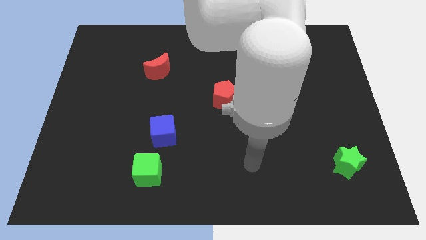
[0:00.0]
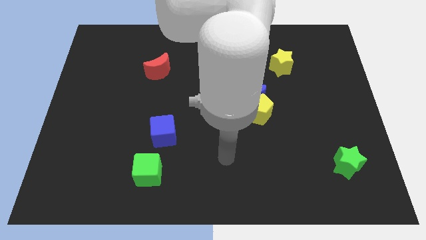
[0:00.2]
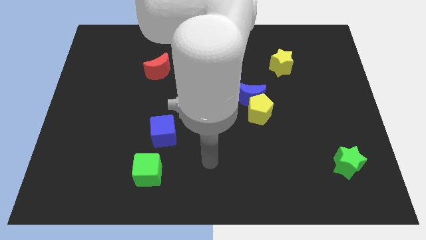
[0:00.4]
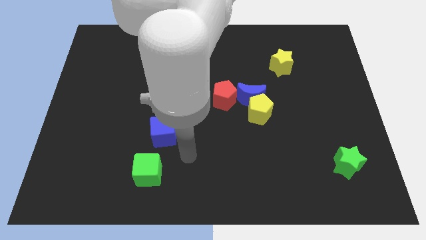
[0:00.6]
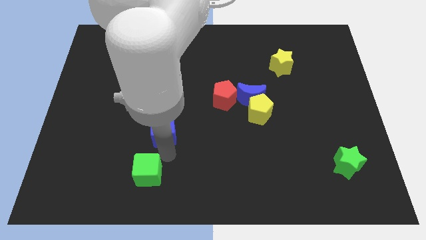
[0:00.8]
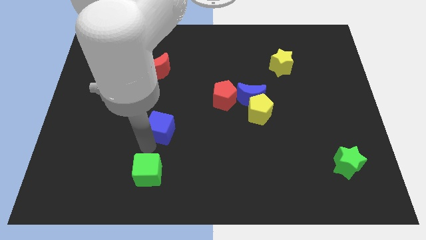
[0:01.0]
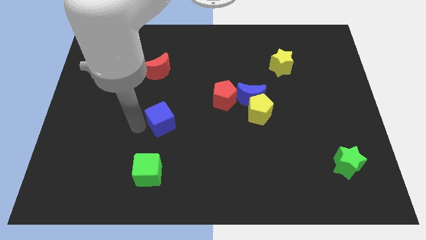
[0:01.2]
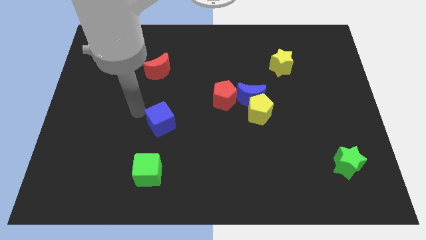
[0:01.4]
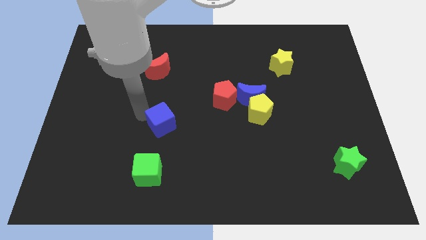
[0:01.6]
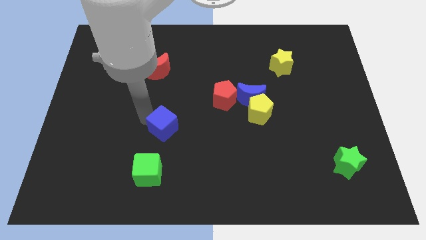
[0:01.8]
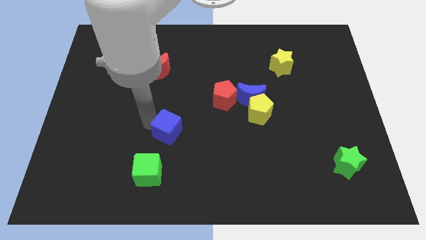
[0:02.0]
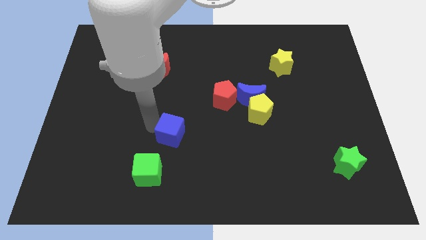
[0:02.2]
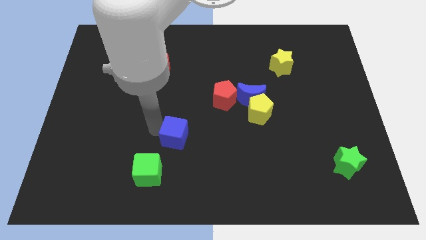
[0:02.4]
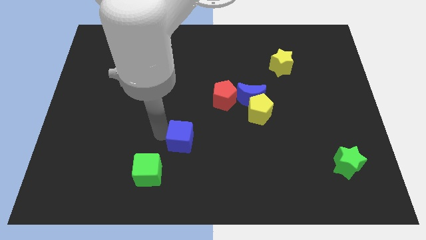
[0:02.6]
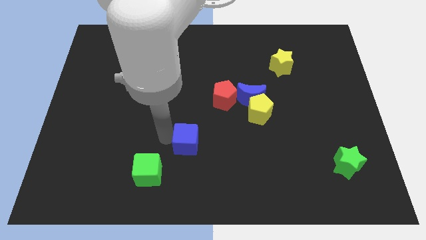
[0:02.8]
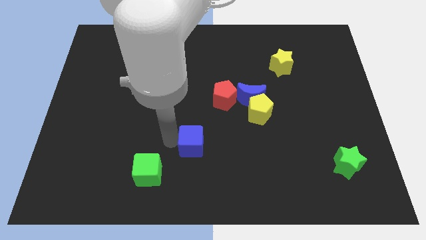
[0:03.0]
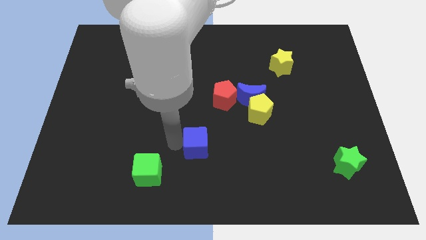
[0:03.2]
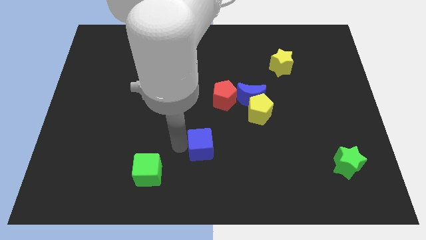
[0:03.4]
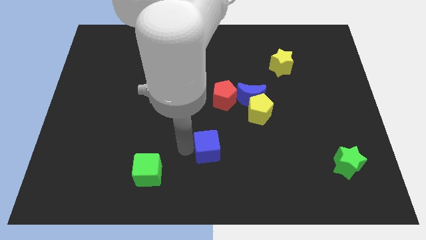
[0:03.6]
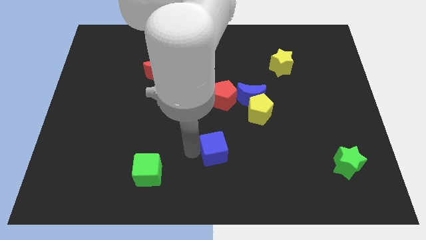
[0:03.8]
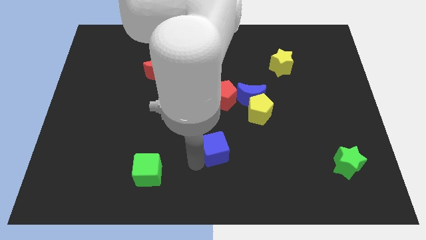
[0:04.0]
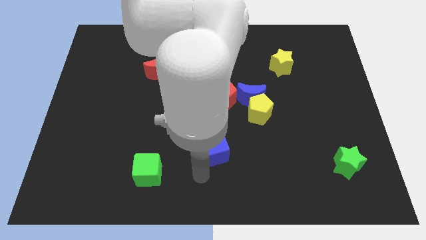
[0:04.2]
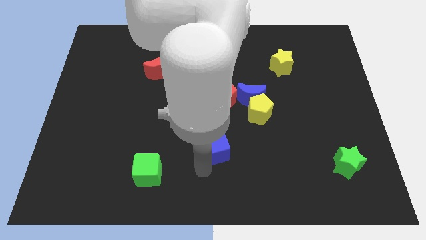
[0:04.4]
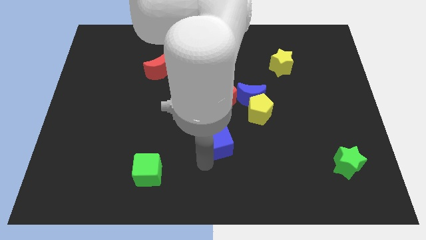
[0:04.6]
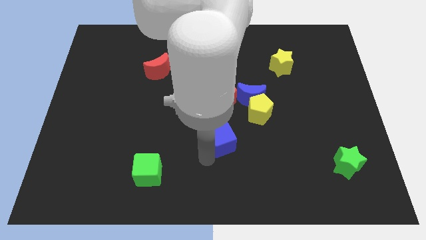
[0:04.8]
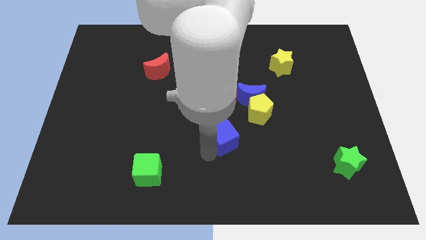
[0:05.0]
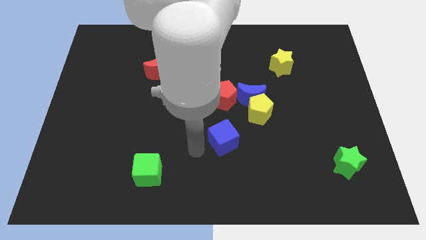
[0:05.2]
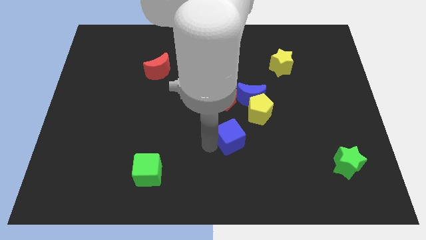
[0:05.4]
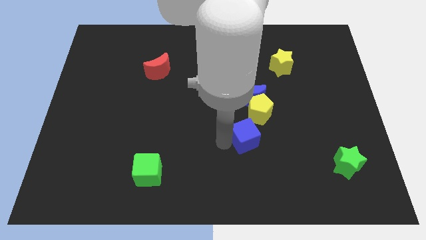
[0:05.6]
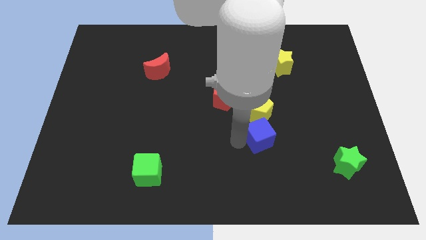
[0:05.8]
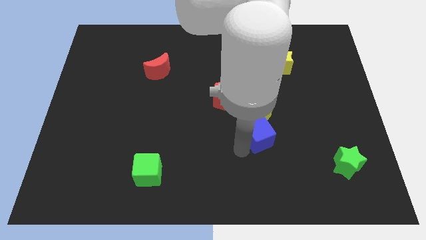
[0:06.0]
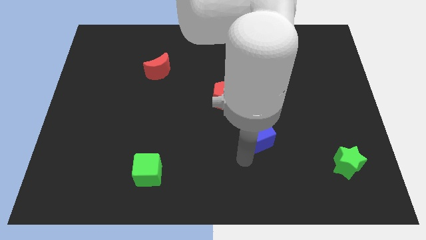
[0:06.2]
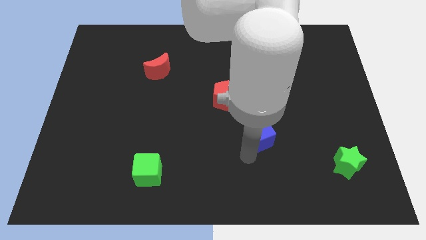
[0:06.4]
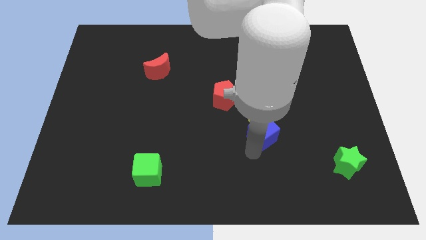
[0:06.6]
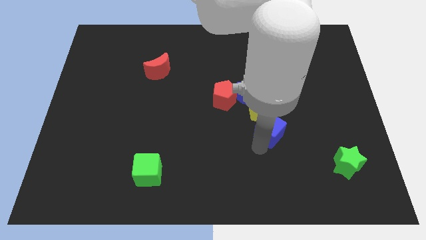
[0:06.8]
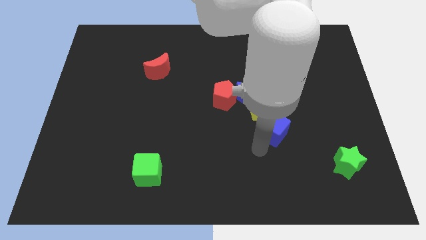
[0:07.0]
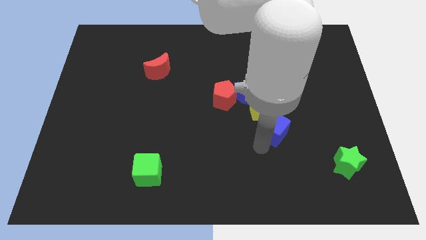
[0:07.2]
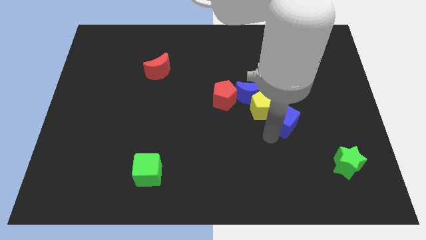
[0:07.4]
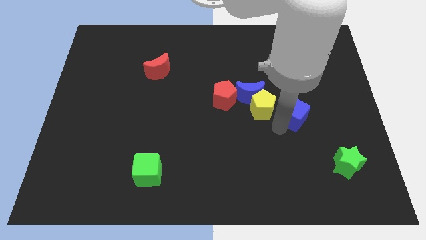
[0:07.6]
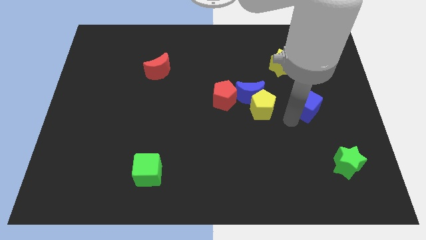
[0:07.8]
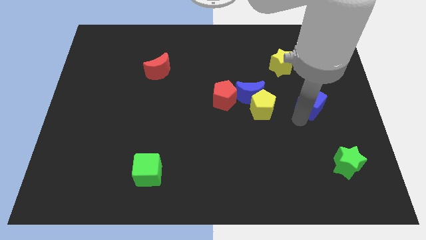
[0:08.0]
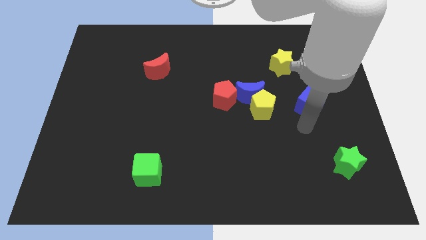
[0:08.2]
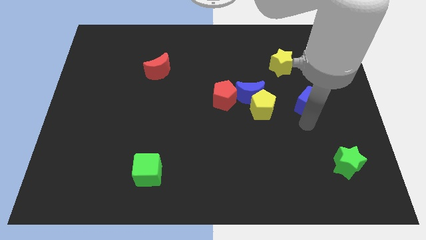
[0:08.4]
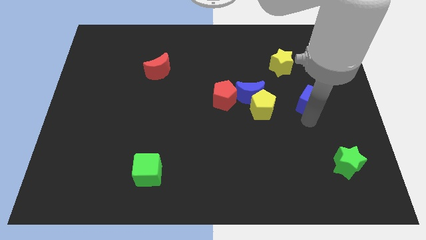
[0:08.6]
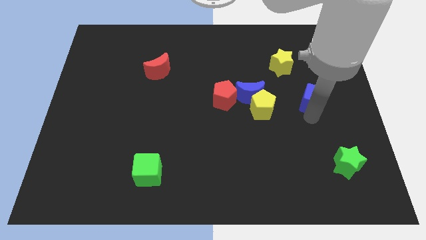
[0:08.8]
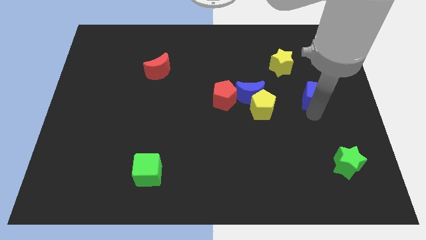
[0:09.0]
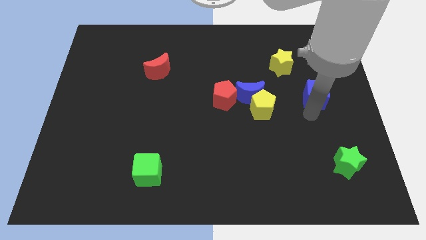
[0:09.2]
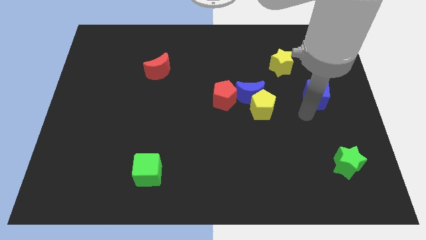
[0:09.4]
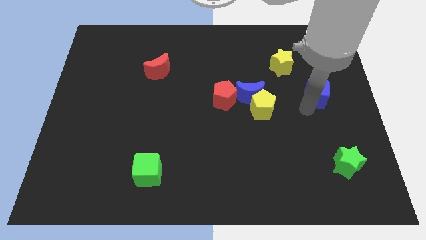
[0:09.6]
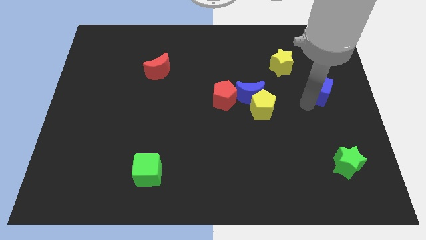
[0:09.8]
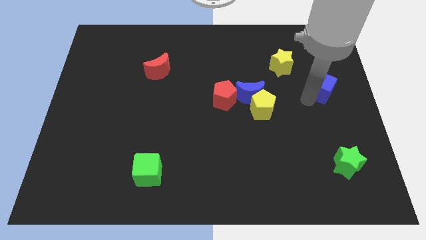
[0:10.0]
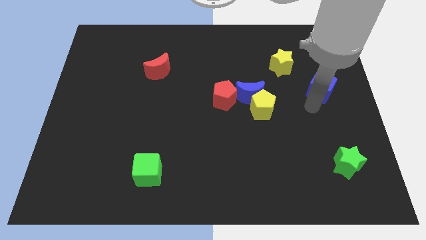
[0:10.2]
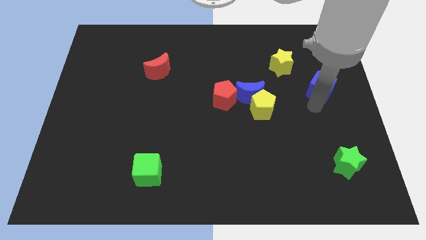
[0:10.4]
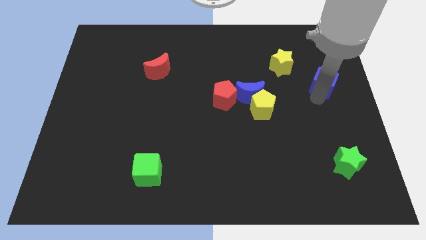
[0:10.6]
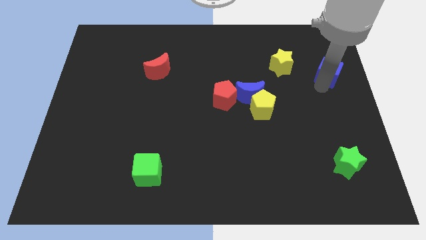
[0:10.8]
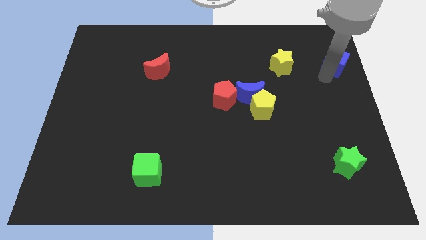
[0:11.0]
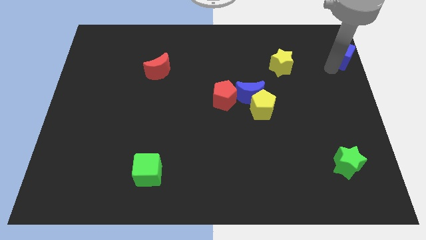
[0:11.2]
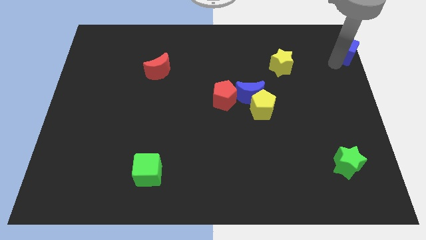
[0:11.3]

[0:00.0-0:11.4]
move the blue cube to the top right of the board

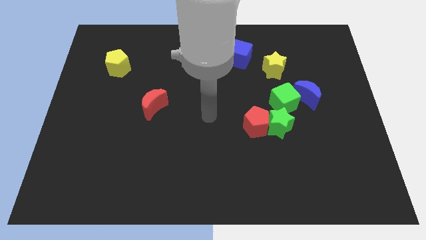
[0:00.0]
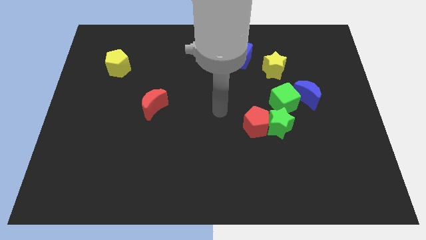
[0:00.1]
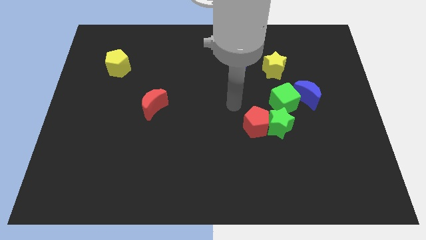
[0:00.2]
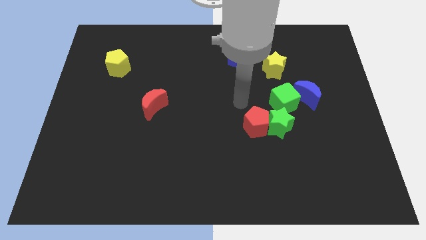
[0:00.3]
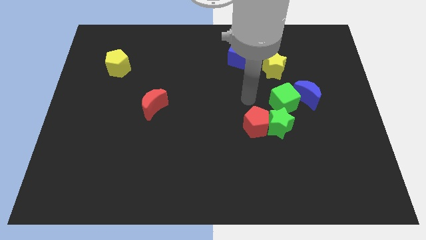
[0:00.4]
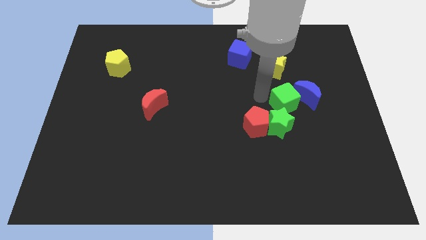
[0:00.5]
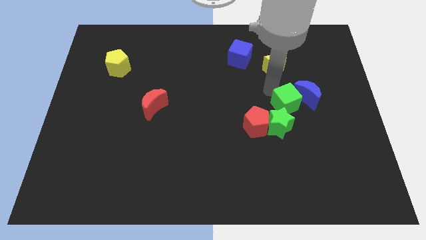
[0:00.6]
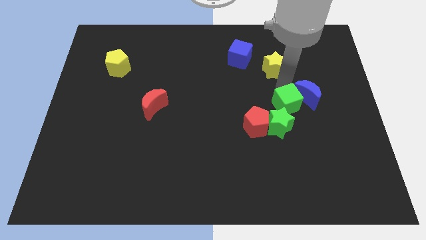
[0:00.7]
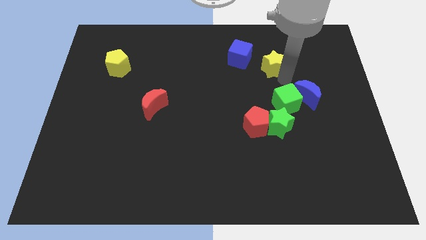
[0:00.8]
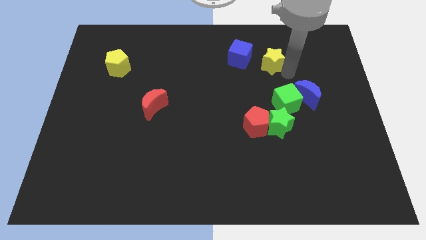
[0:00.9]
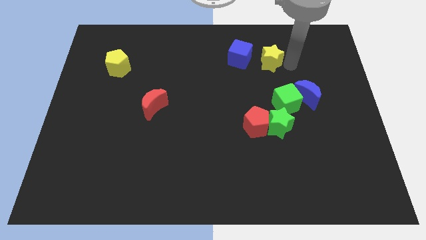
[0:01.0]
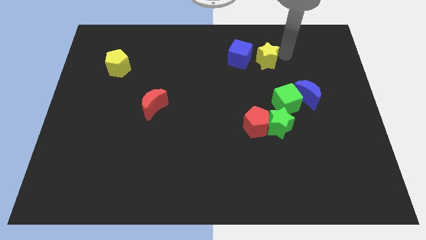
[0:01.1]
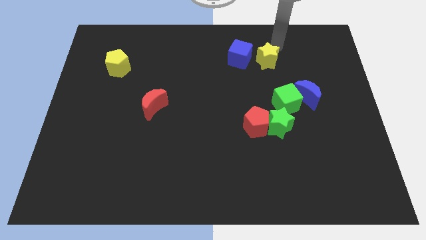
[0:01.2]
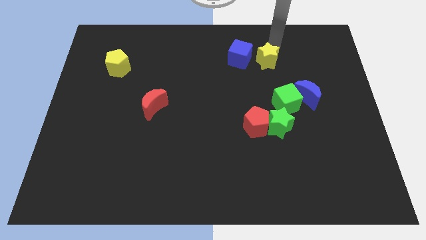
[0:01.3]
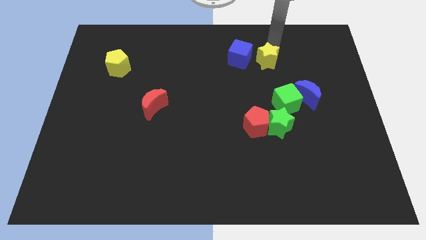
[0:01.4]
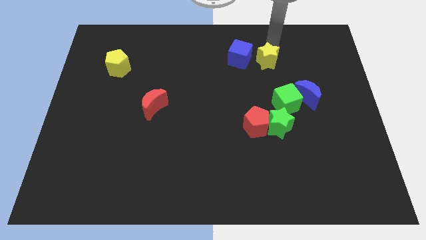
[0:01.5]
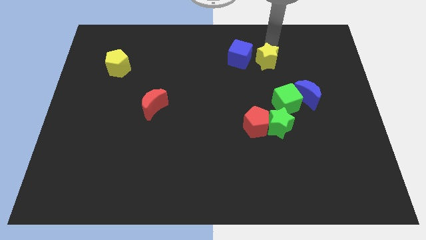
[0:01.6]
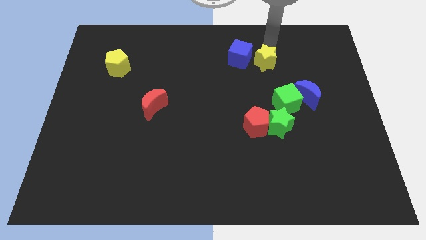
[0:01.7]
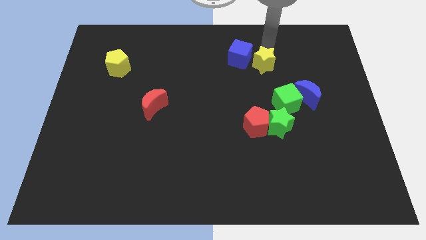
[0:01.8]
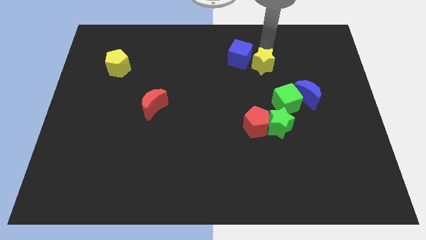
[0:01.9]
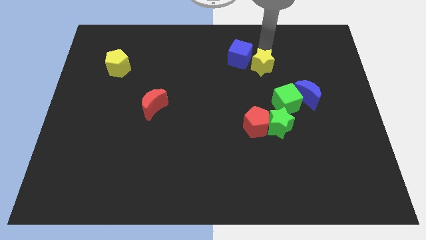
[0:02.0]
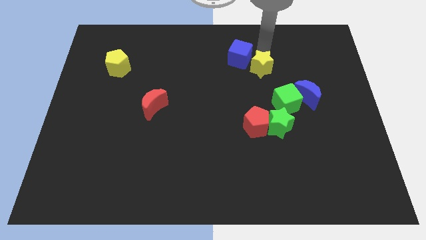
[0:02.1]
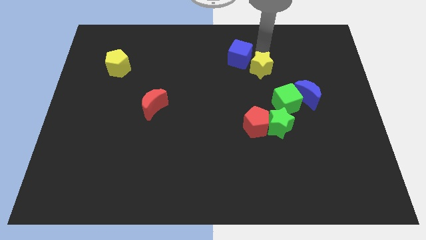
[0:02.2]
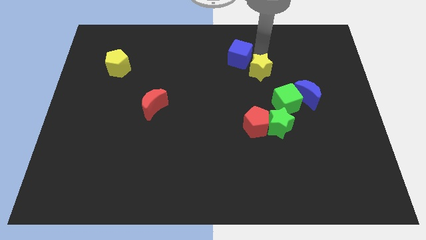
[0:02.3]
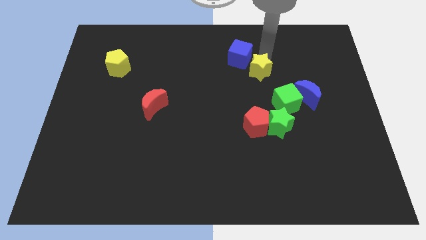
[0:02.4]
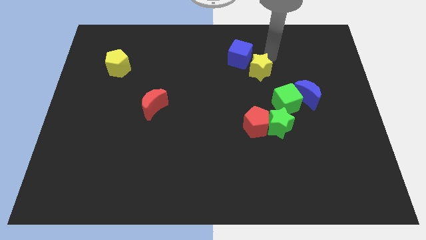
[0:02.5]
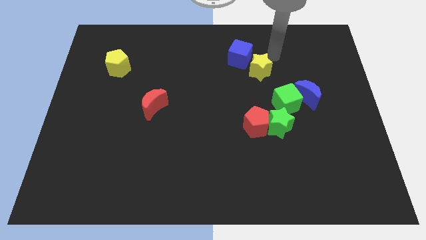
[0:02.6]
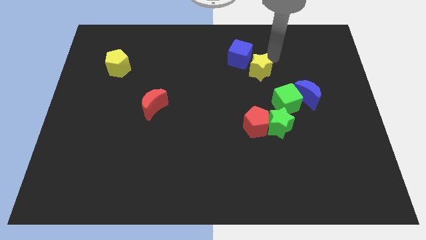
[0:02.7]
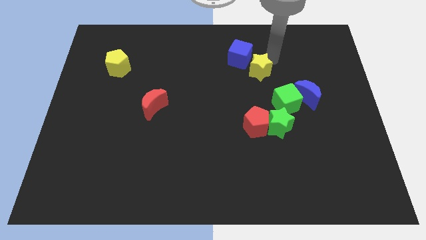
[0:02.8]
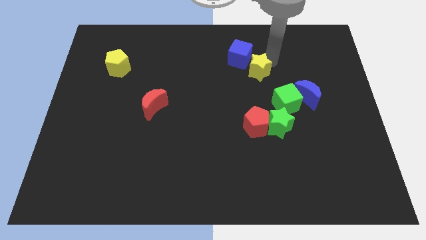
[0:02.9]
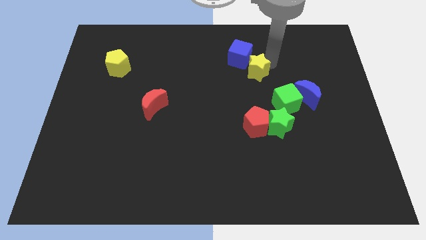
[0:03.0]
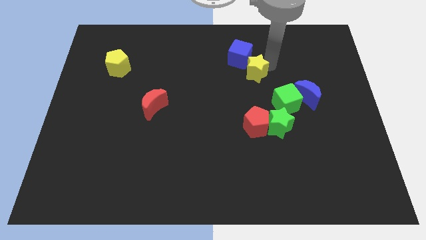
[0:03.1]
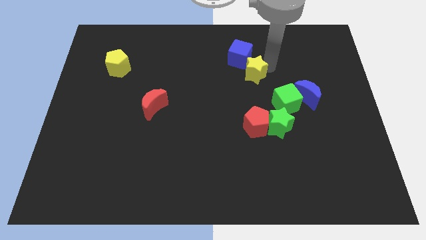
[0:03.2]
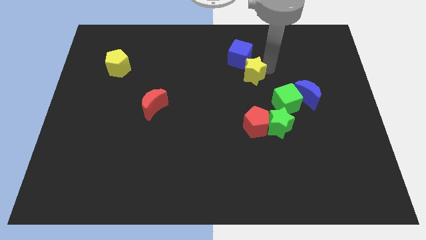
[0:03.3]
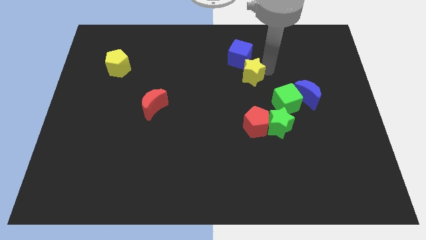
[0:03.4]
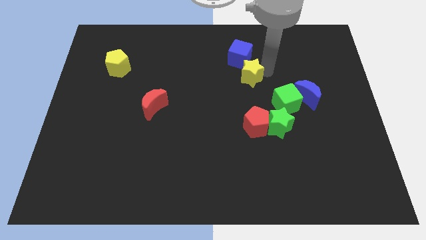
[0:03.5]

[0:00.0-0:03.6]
slide the yellow star to the center of the board
